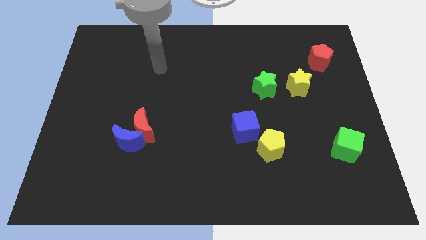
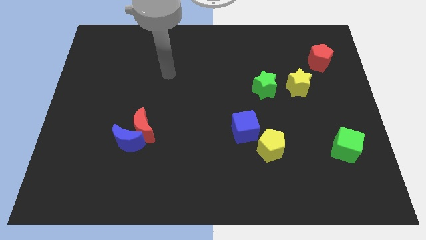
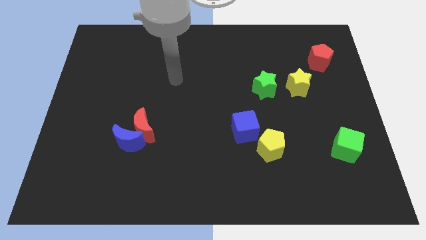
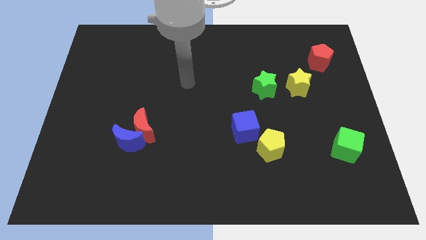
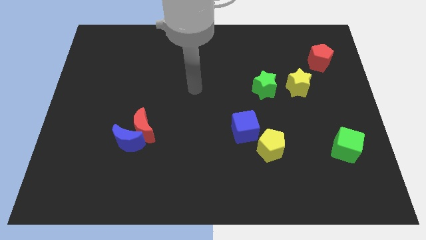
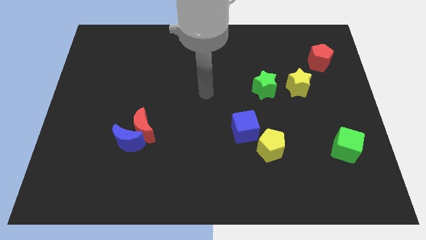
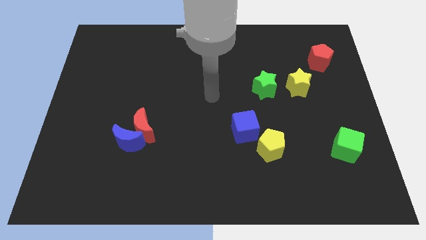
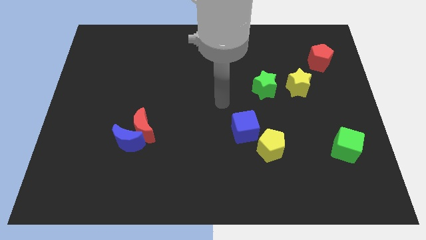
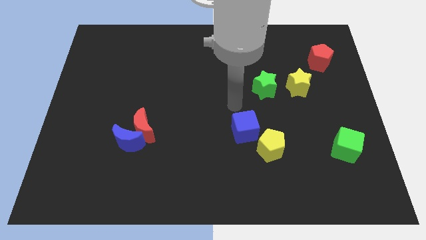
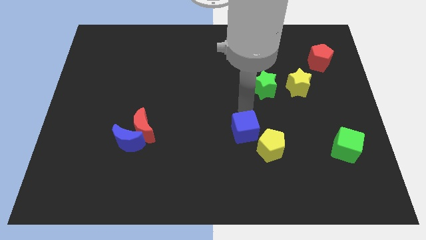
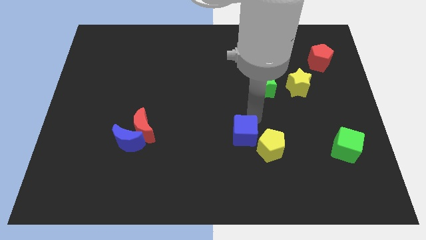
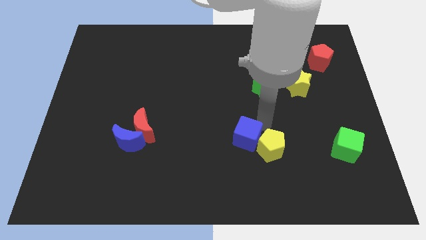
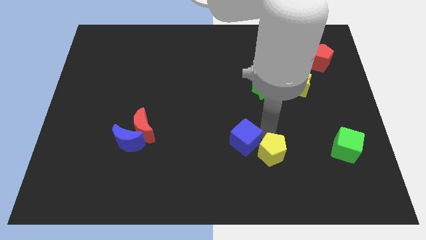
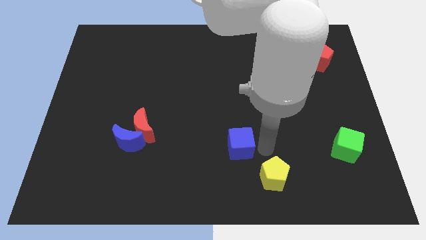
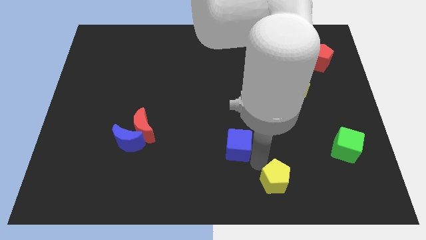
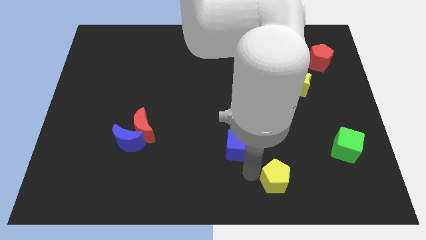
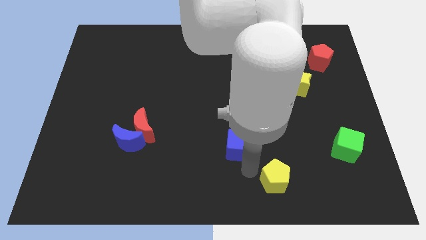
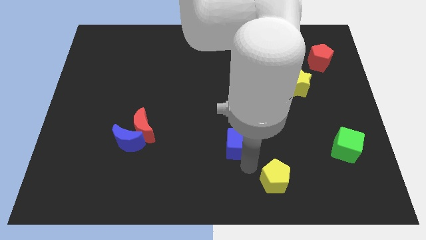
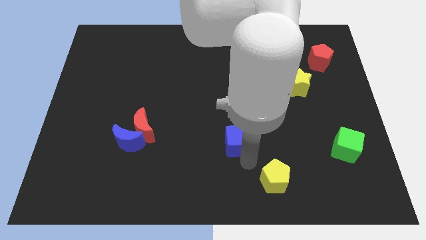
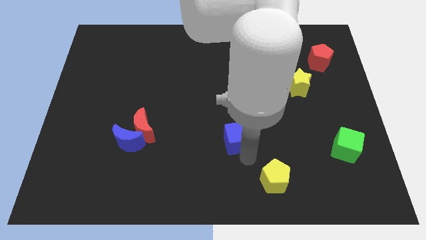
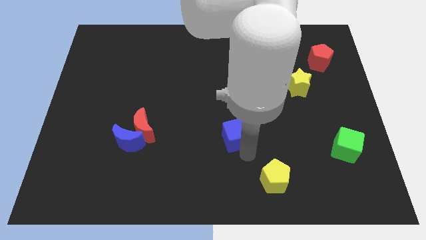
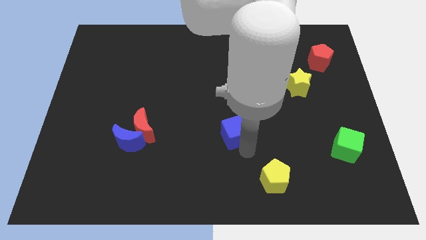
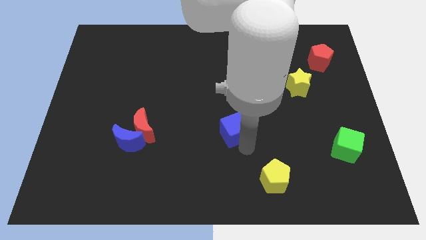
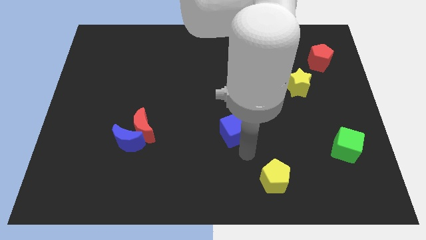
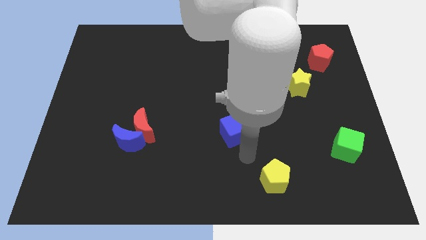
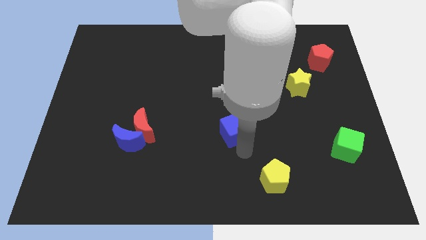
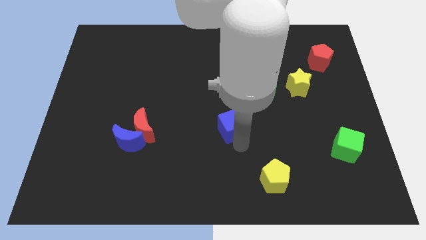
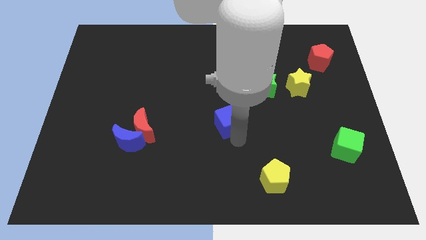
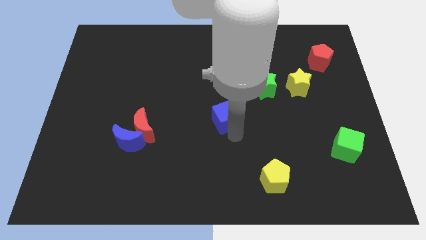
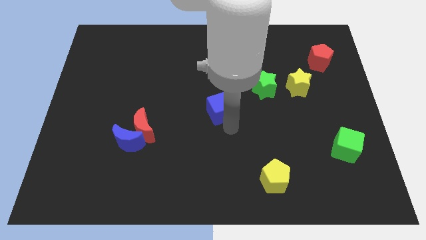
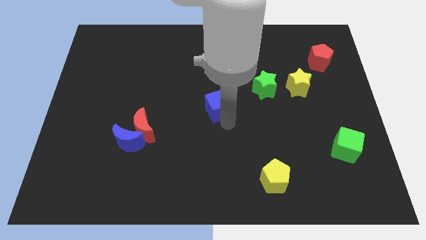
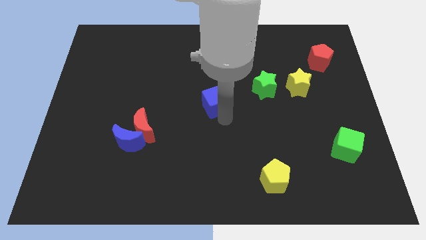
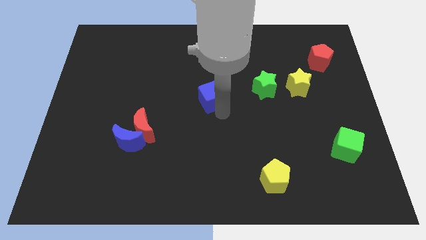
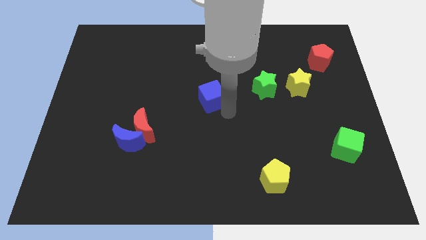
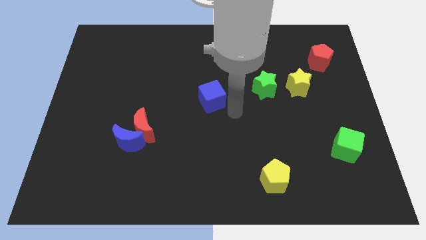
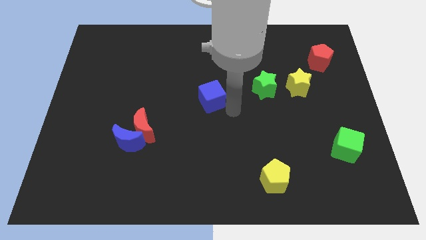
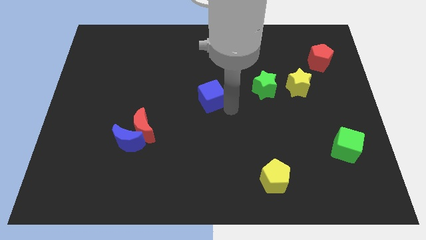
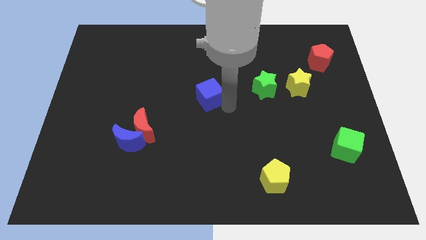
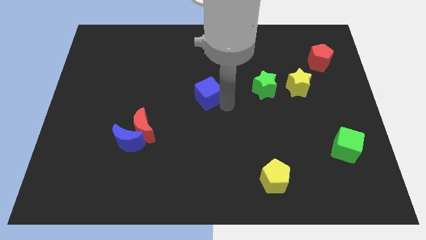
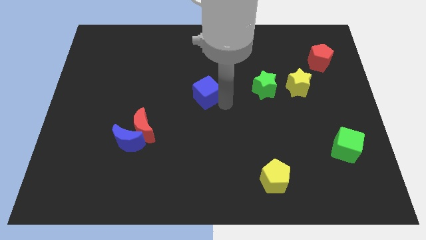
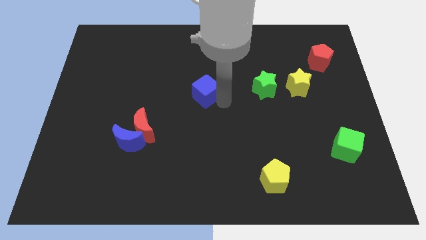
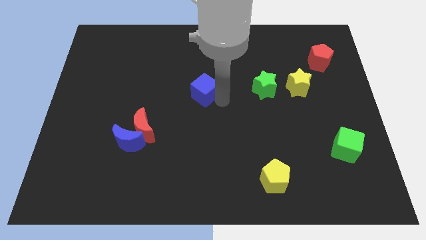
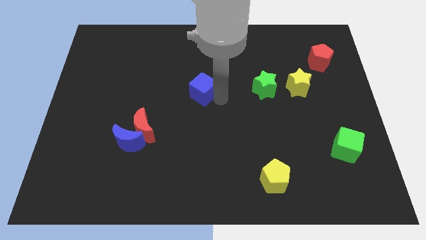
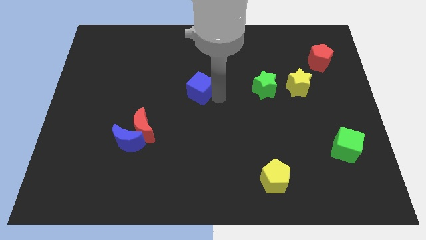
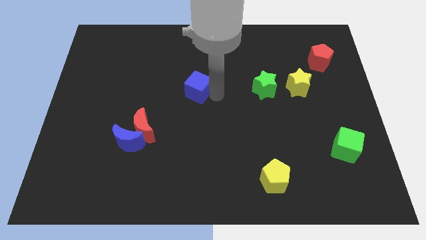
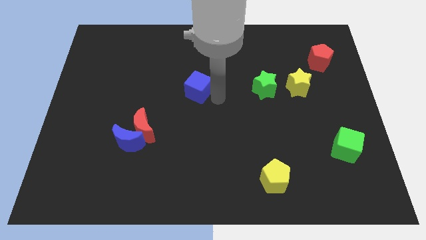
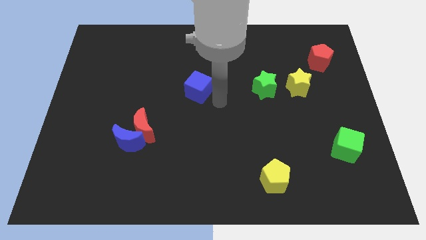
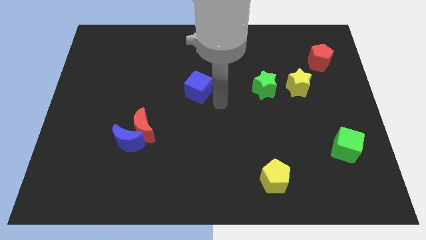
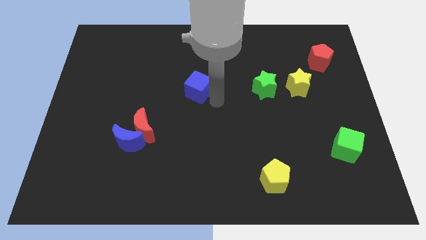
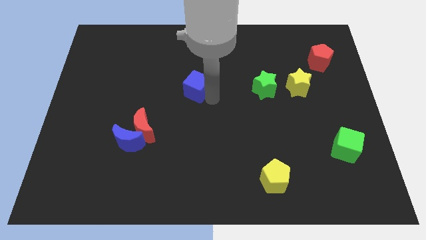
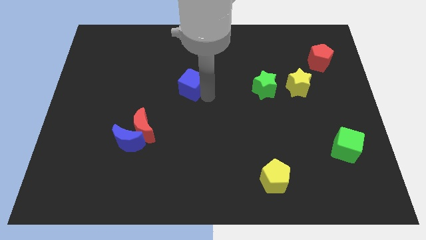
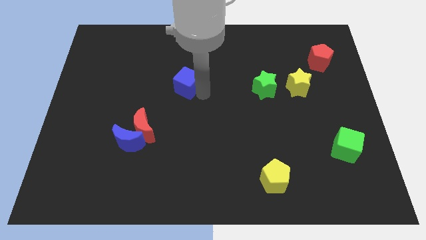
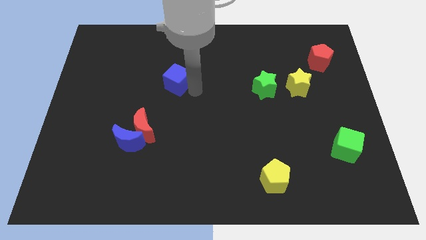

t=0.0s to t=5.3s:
push the blue cube up and then left

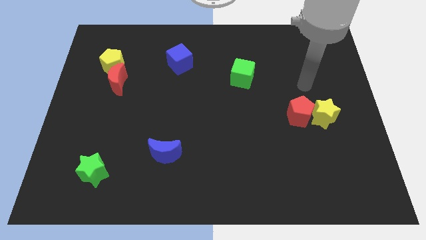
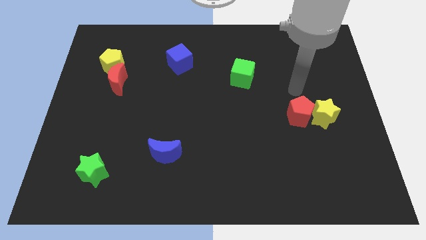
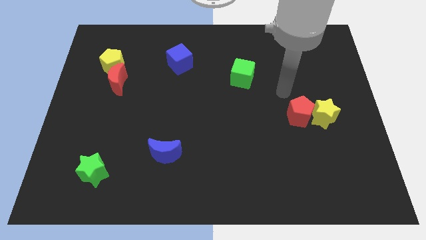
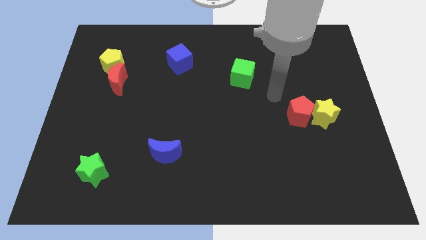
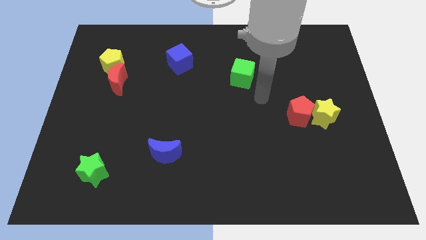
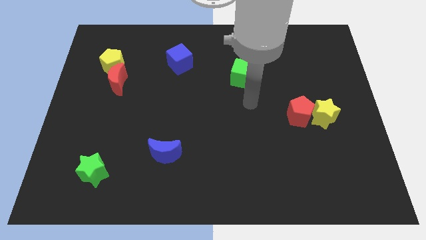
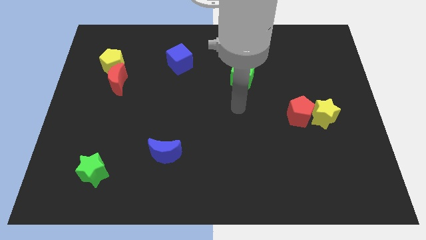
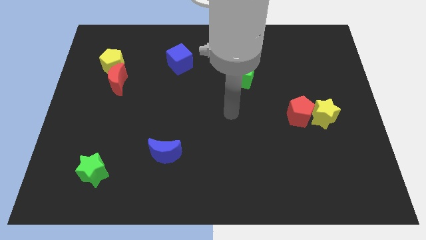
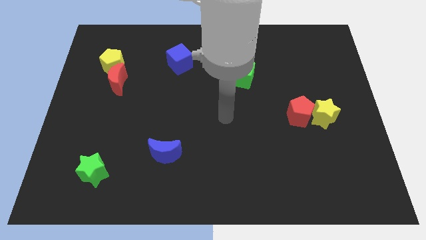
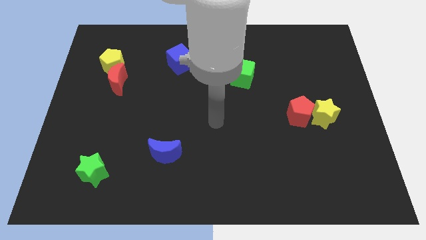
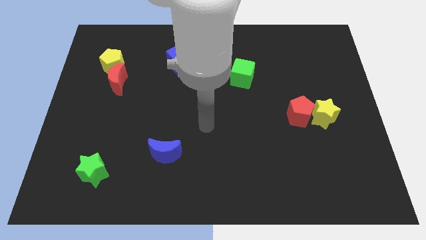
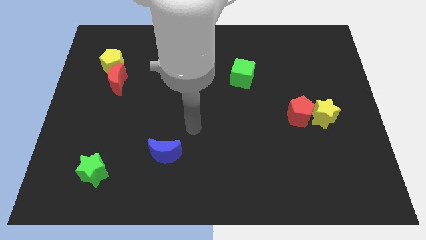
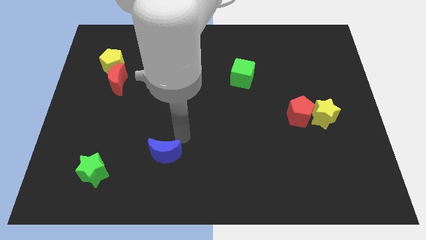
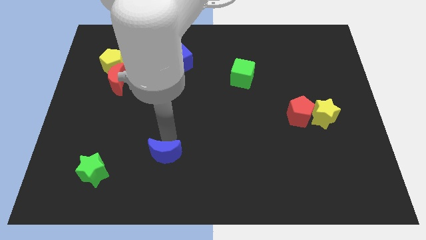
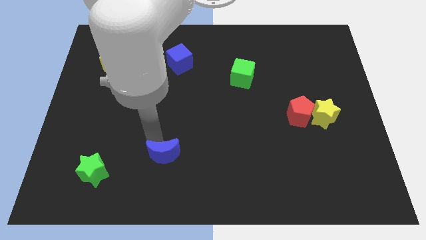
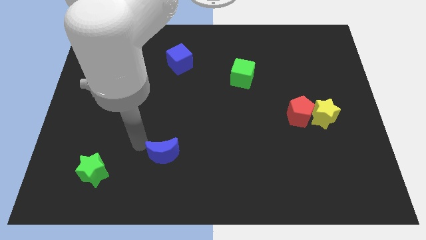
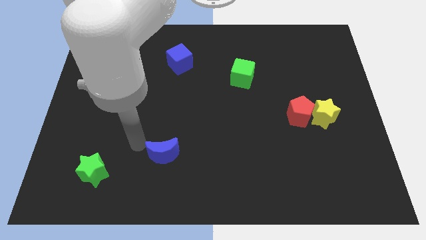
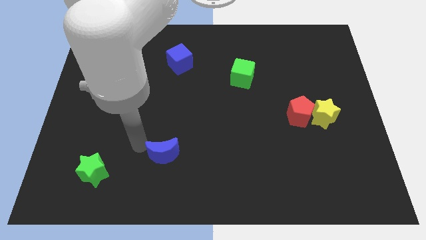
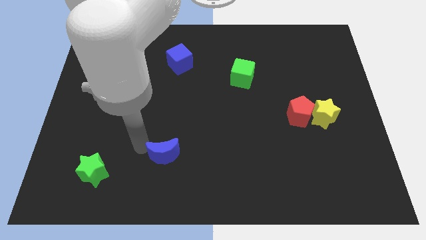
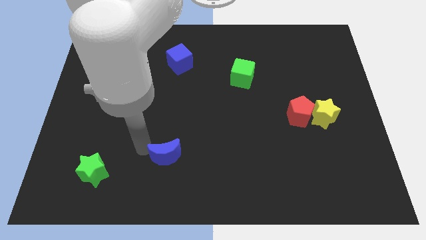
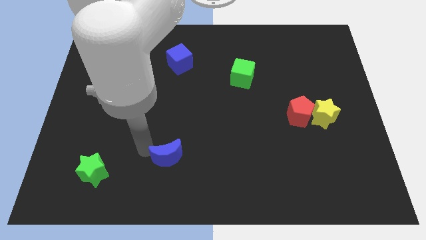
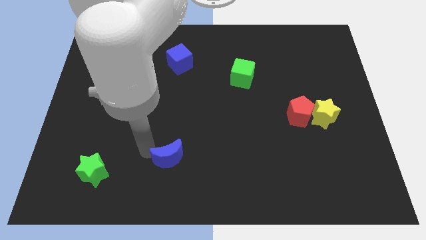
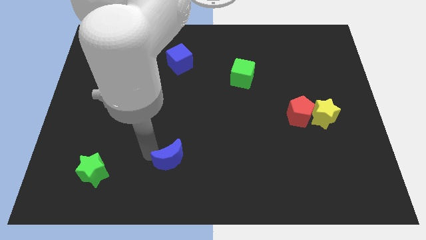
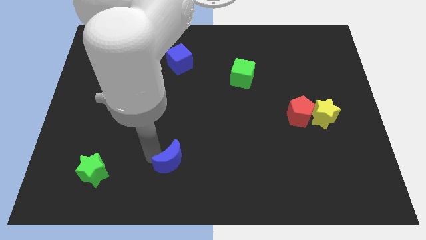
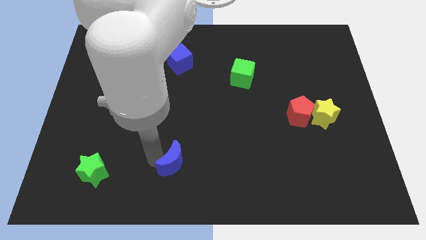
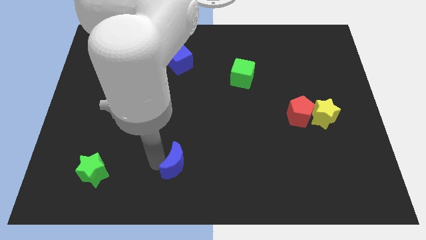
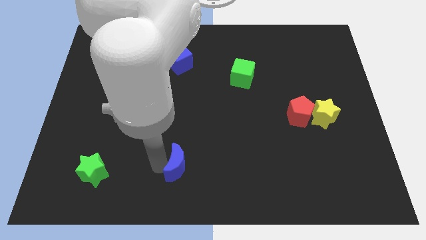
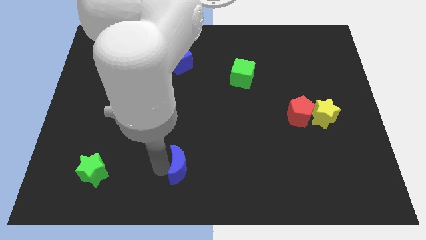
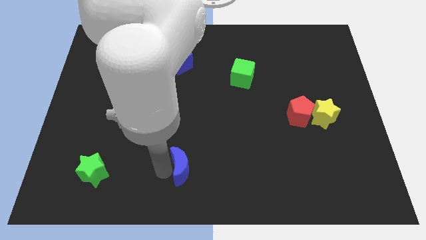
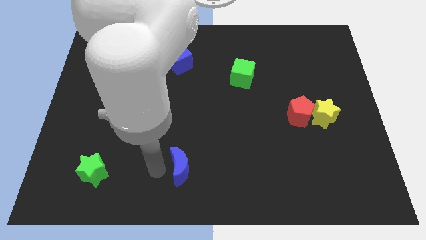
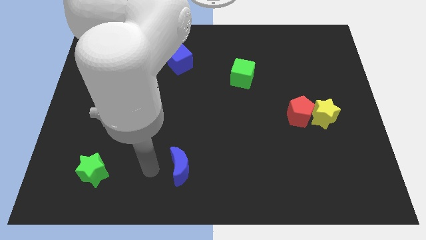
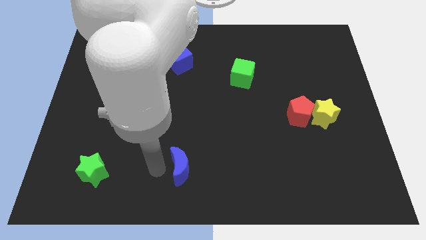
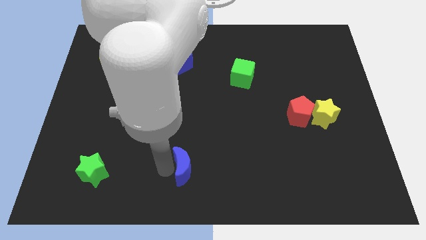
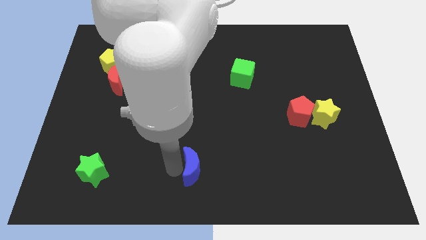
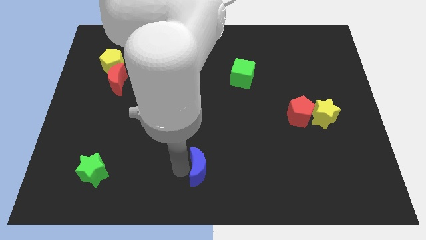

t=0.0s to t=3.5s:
slightly push the blue moon right
